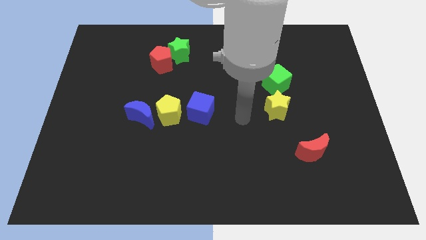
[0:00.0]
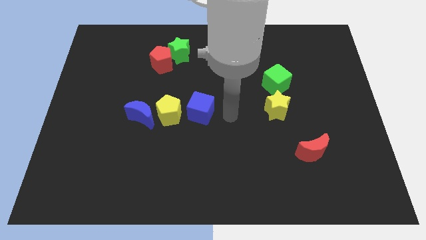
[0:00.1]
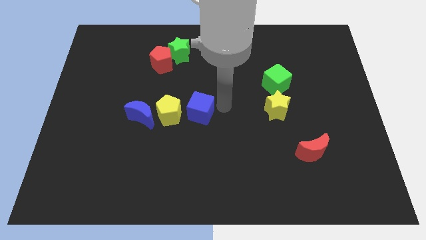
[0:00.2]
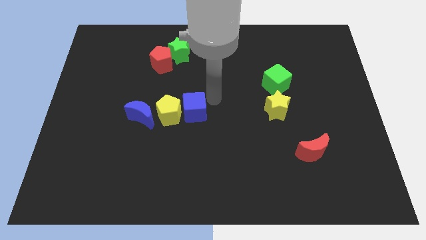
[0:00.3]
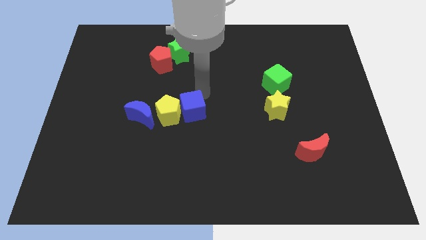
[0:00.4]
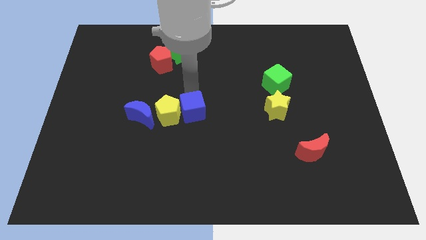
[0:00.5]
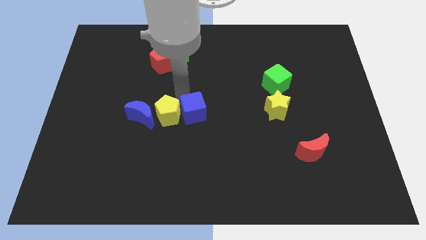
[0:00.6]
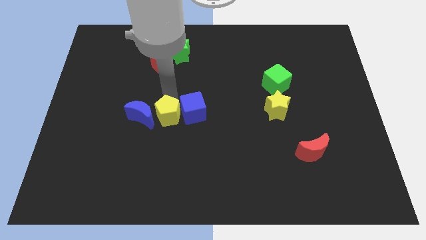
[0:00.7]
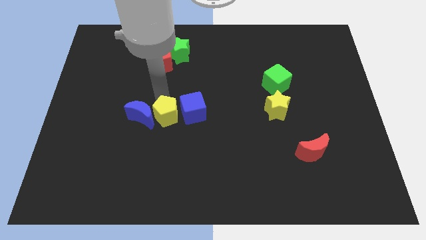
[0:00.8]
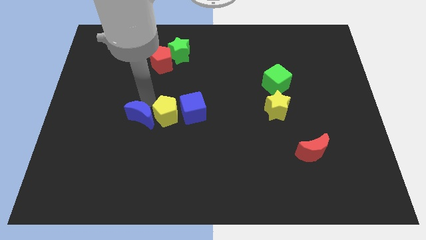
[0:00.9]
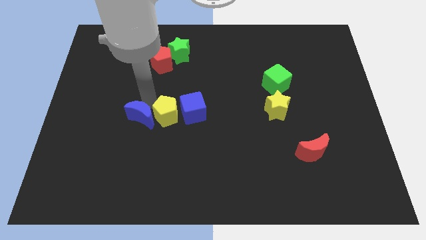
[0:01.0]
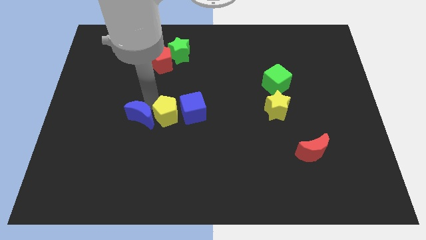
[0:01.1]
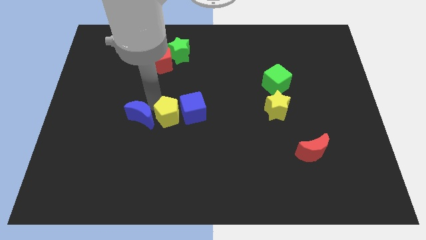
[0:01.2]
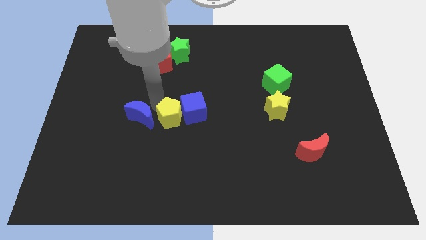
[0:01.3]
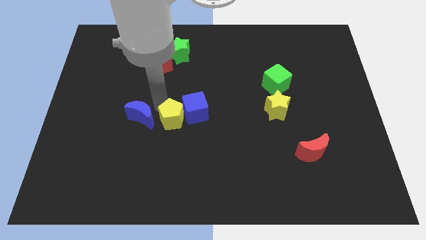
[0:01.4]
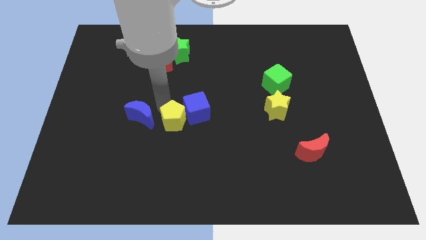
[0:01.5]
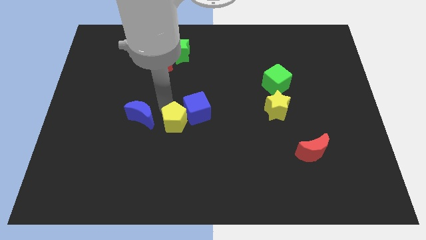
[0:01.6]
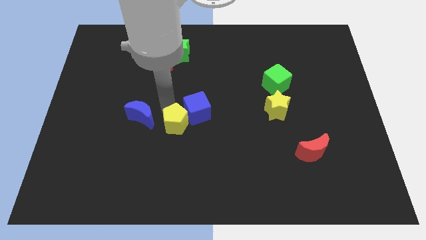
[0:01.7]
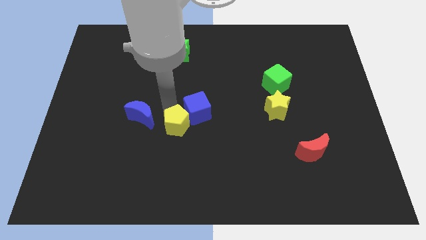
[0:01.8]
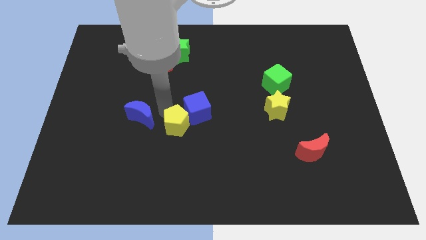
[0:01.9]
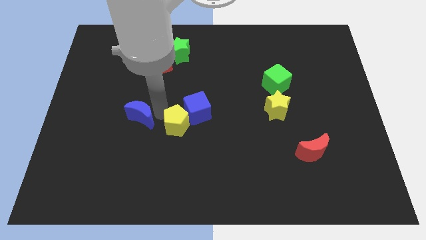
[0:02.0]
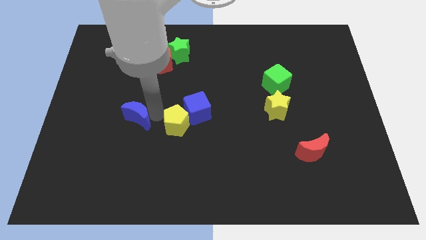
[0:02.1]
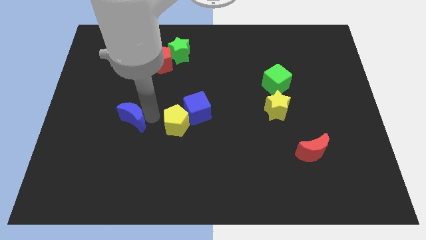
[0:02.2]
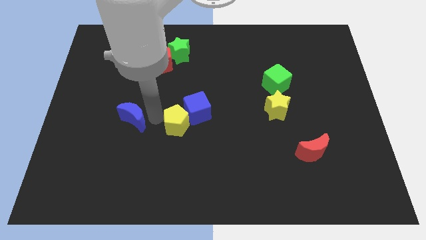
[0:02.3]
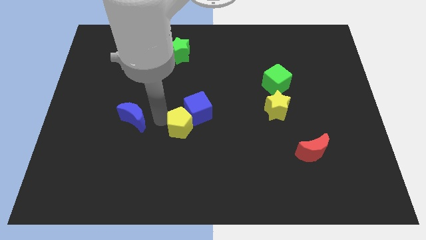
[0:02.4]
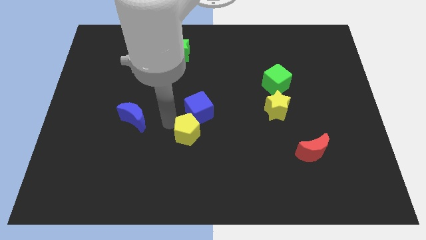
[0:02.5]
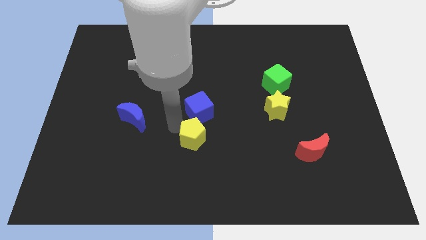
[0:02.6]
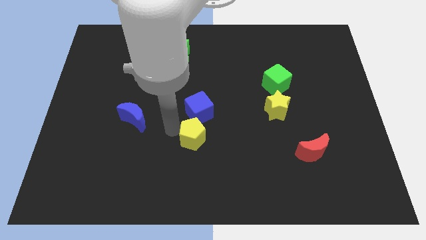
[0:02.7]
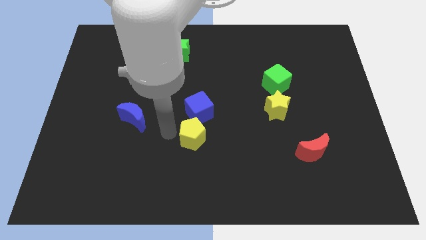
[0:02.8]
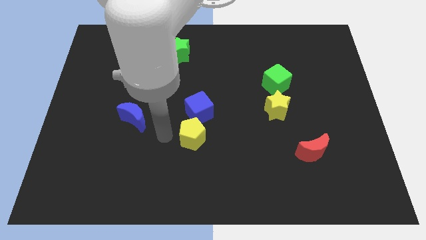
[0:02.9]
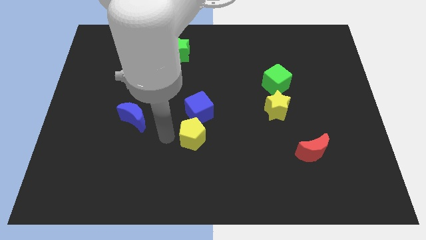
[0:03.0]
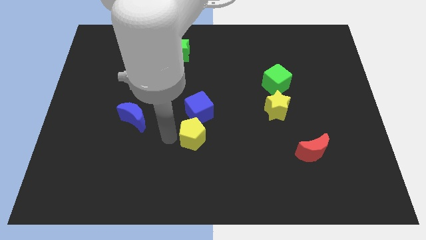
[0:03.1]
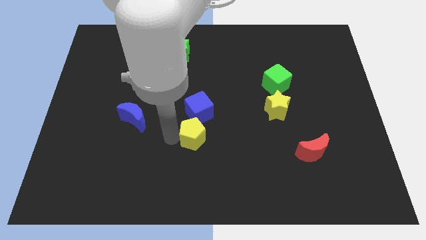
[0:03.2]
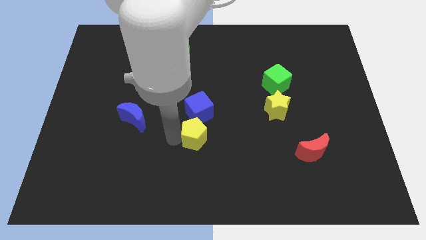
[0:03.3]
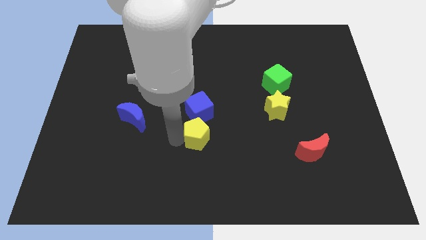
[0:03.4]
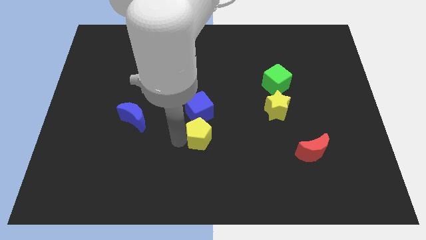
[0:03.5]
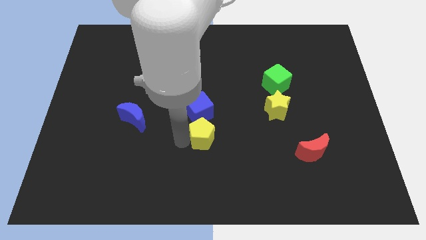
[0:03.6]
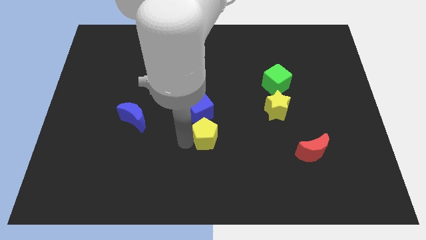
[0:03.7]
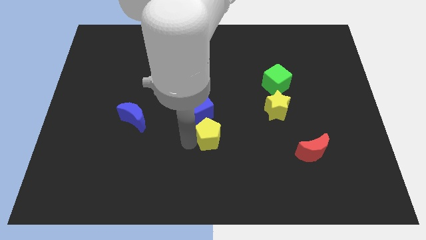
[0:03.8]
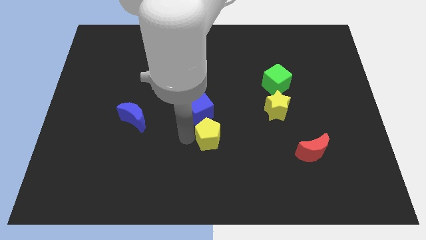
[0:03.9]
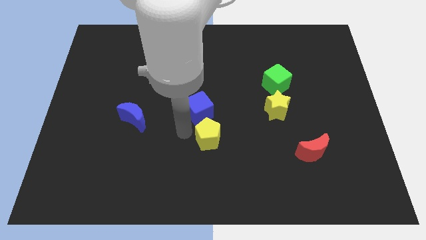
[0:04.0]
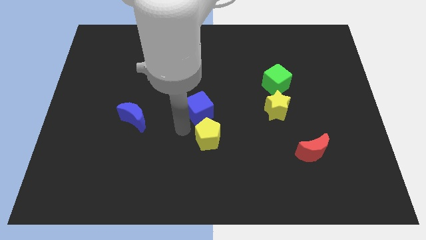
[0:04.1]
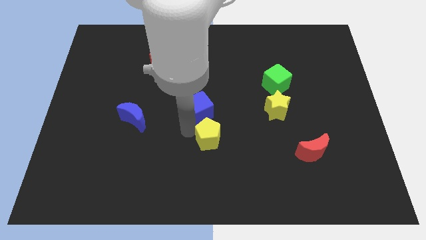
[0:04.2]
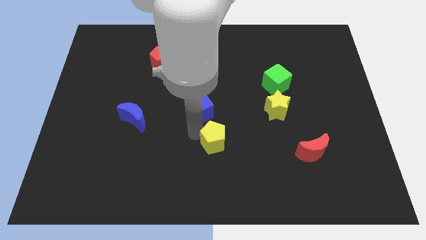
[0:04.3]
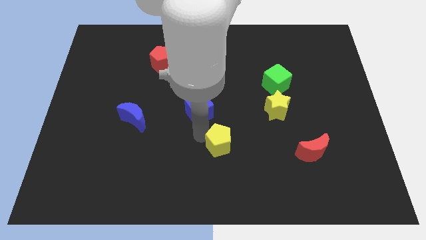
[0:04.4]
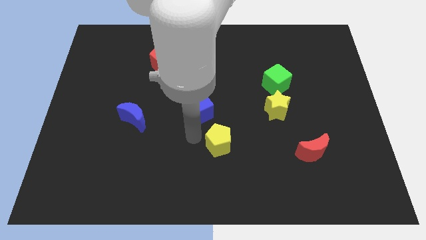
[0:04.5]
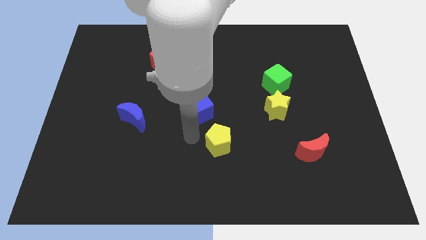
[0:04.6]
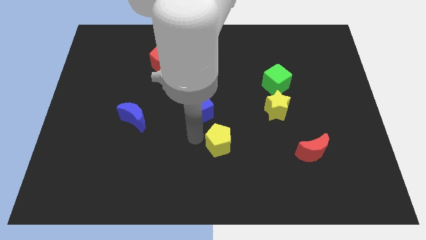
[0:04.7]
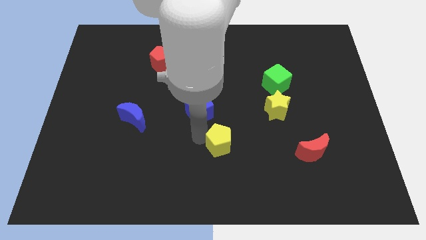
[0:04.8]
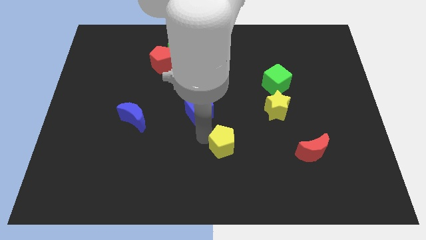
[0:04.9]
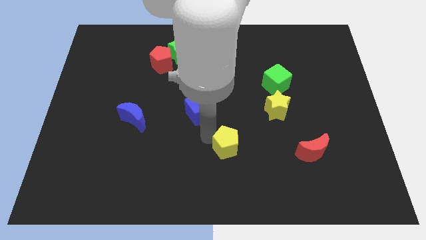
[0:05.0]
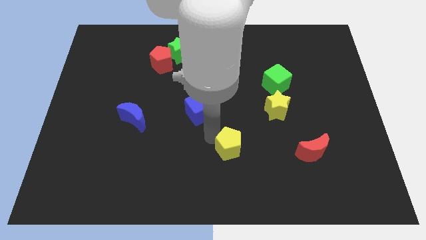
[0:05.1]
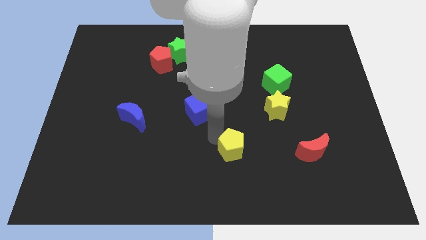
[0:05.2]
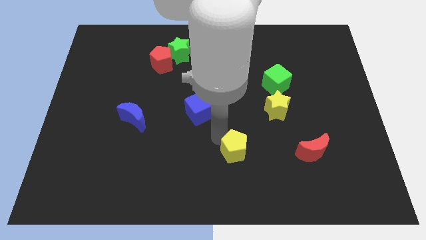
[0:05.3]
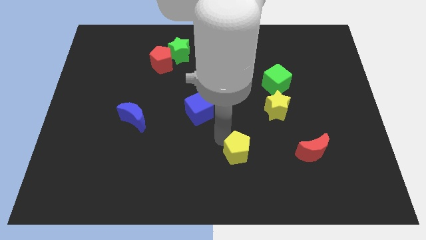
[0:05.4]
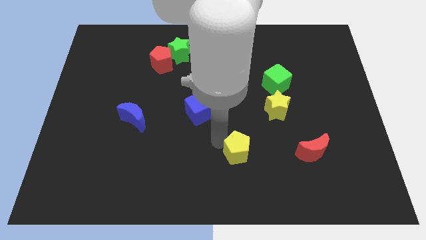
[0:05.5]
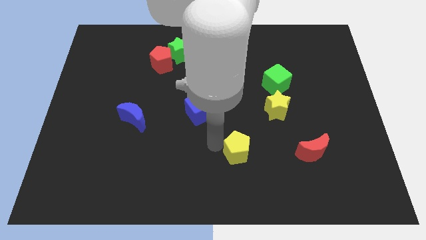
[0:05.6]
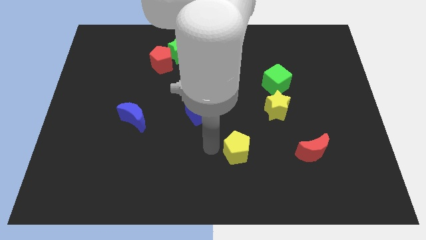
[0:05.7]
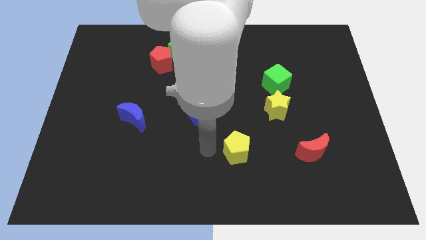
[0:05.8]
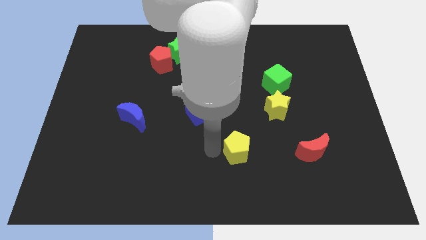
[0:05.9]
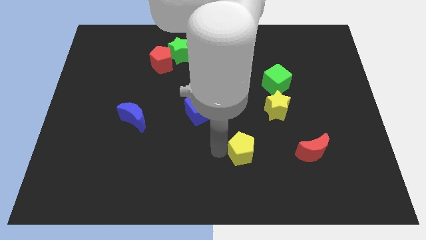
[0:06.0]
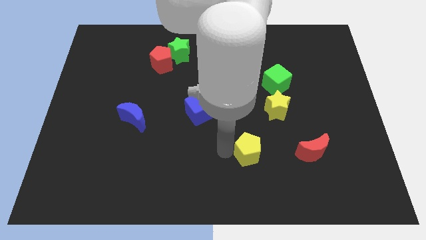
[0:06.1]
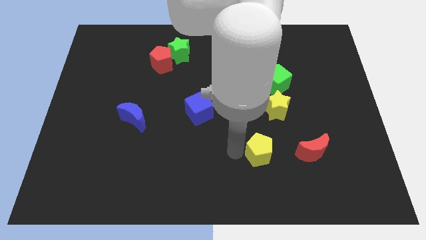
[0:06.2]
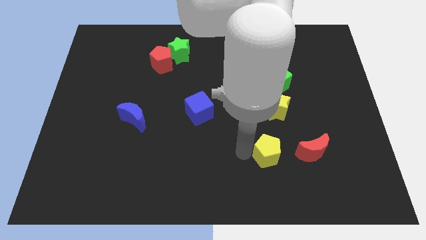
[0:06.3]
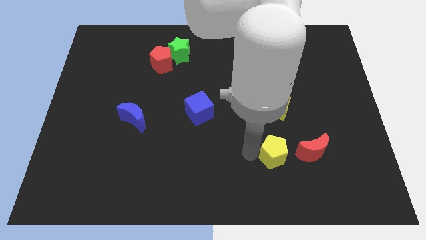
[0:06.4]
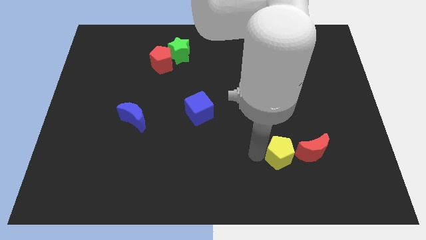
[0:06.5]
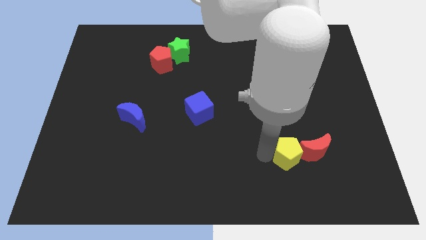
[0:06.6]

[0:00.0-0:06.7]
put the yellow pentagon next to the red moon

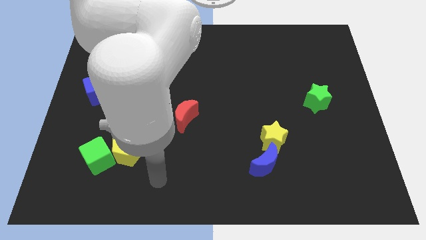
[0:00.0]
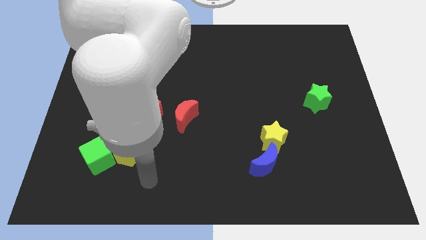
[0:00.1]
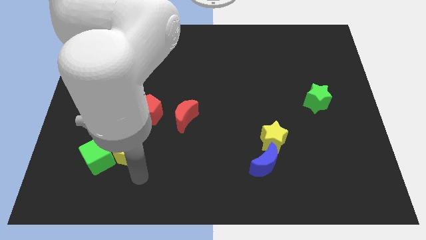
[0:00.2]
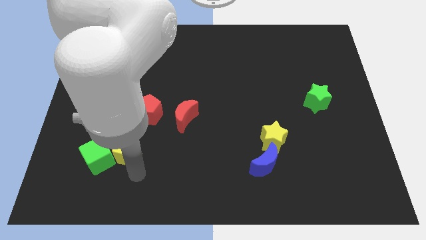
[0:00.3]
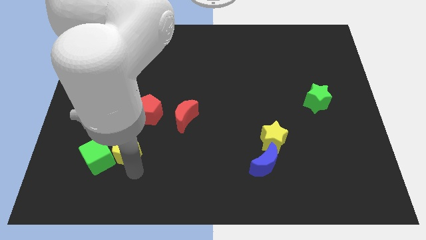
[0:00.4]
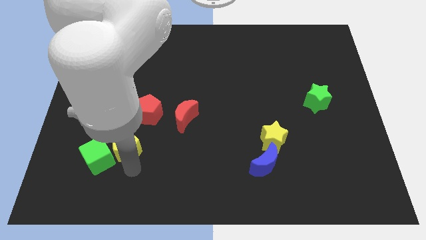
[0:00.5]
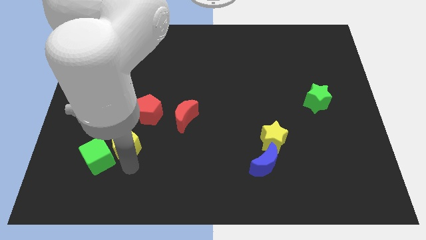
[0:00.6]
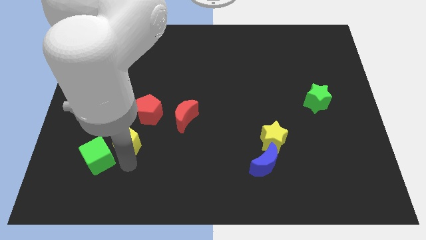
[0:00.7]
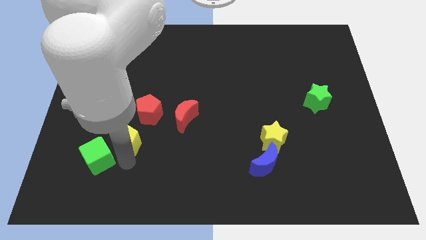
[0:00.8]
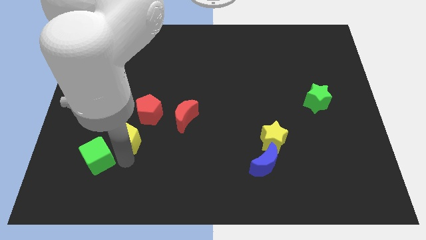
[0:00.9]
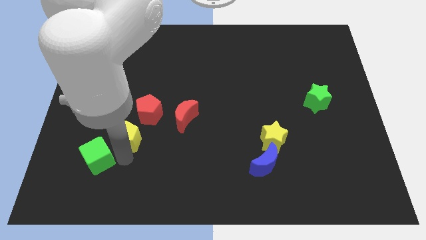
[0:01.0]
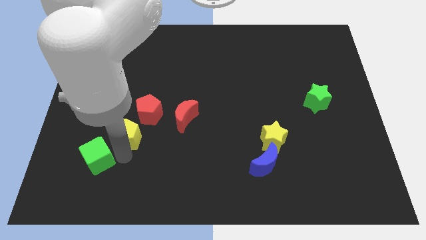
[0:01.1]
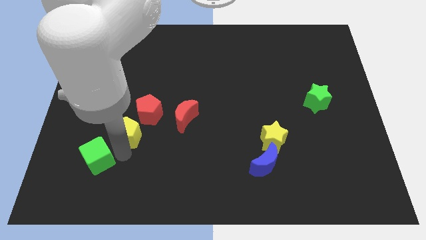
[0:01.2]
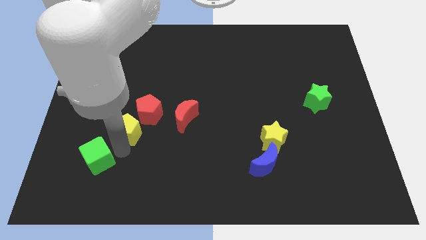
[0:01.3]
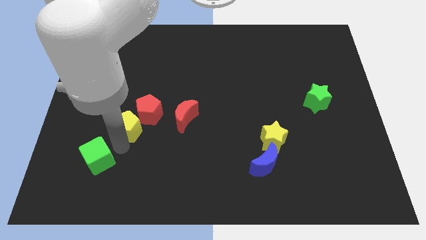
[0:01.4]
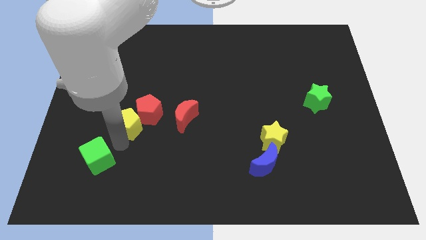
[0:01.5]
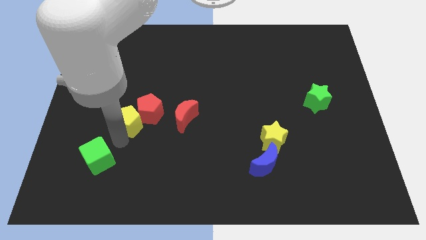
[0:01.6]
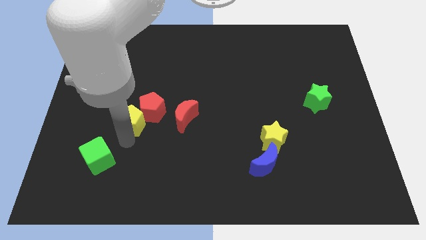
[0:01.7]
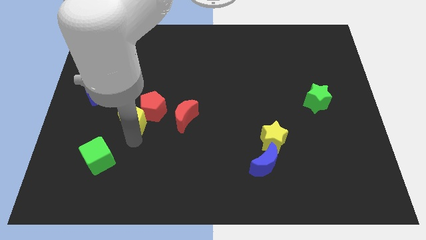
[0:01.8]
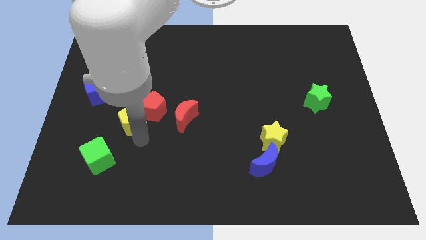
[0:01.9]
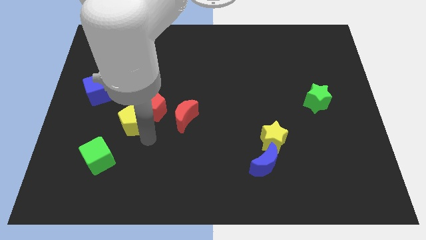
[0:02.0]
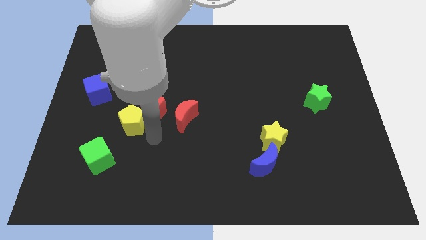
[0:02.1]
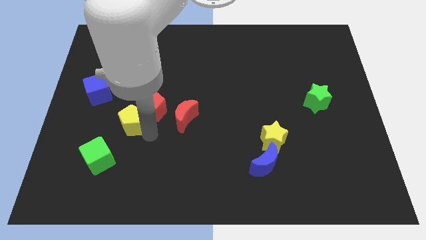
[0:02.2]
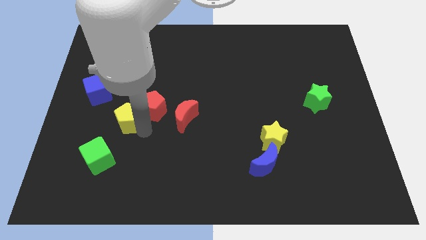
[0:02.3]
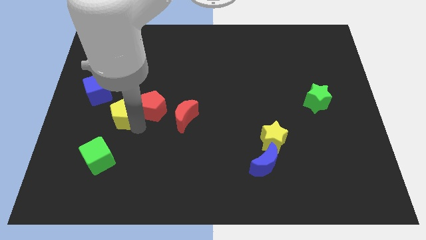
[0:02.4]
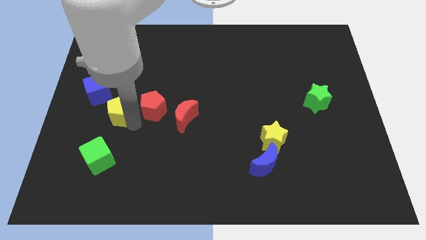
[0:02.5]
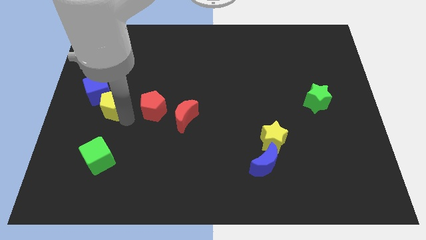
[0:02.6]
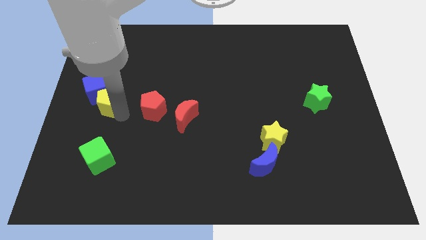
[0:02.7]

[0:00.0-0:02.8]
put the yellow pentagon next to the blue cube
